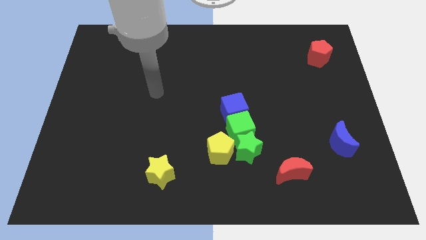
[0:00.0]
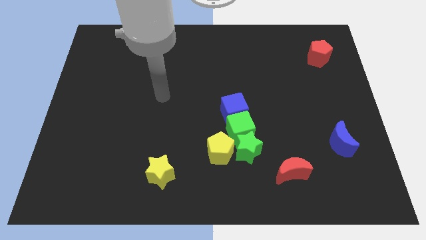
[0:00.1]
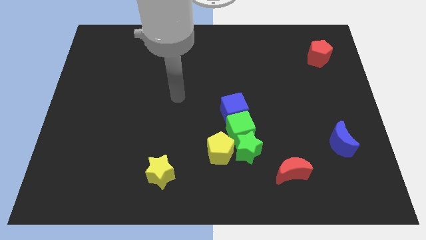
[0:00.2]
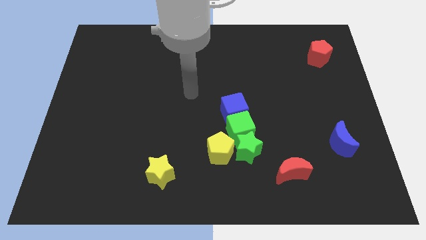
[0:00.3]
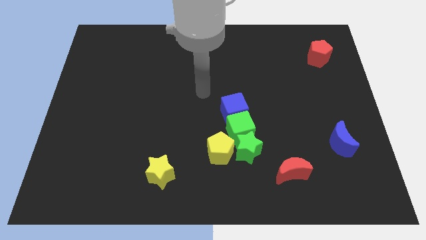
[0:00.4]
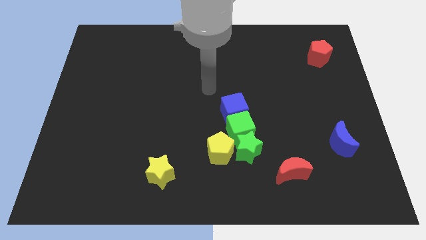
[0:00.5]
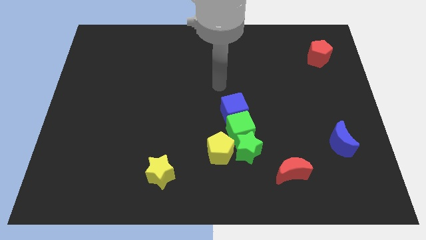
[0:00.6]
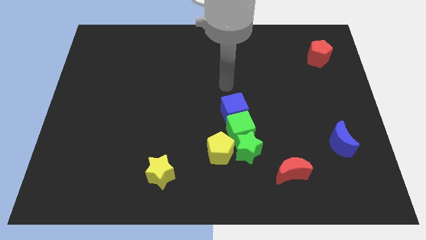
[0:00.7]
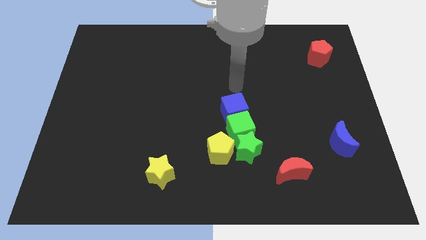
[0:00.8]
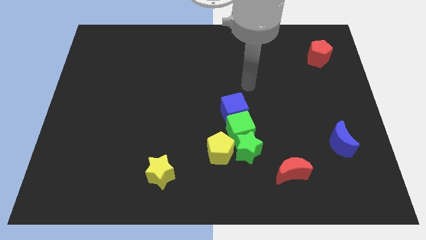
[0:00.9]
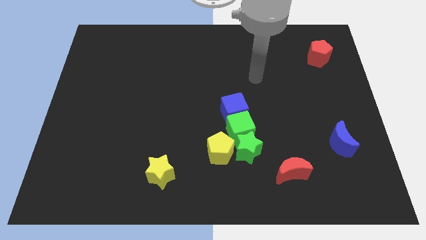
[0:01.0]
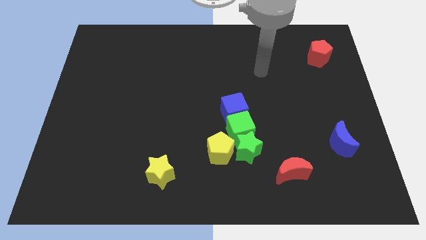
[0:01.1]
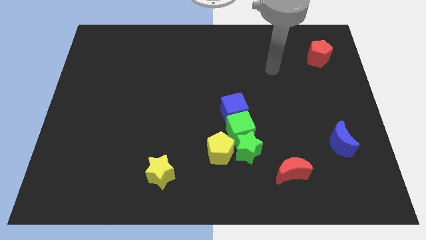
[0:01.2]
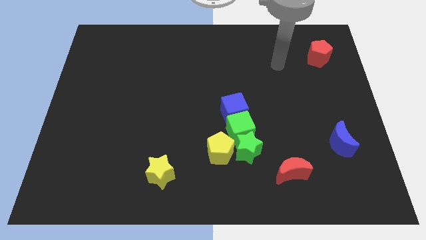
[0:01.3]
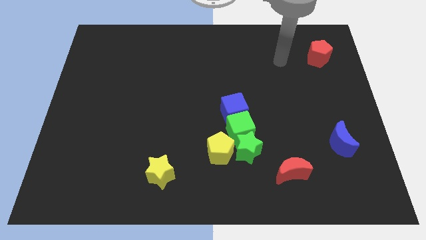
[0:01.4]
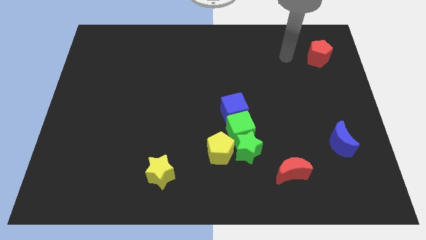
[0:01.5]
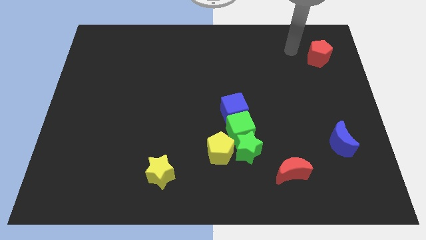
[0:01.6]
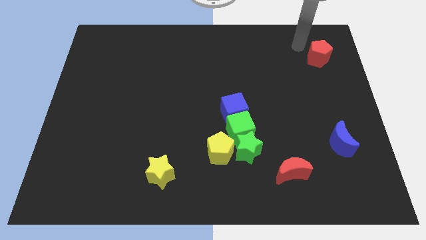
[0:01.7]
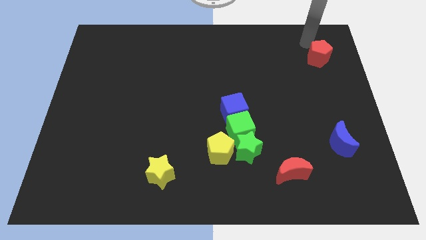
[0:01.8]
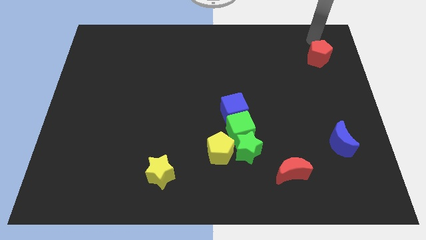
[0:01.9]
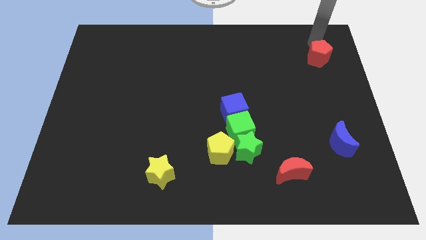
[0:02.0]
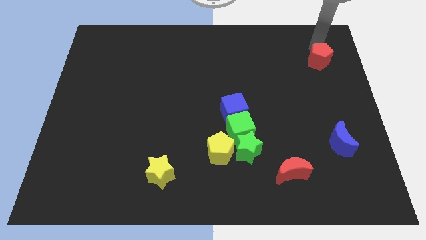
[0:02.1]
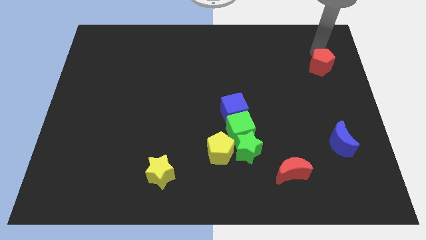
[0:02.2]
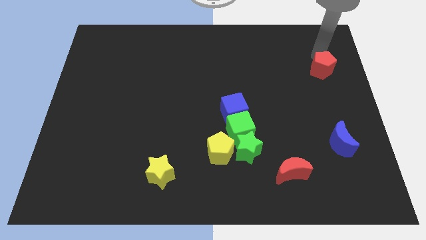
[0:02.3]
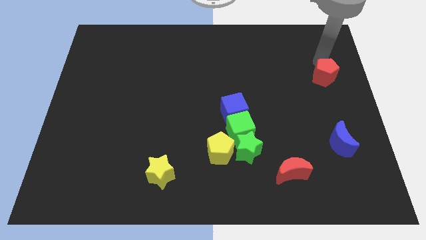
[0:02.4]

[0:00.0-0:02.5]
slightly move the red pentagon down

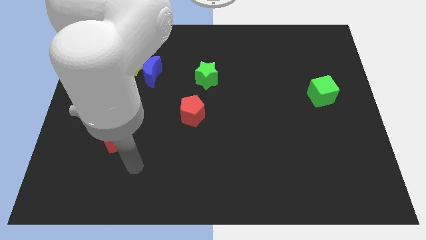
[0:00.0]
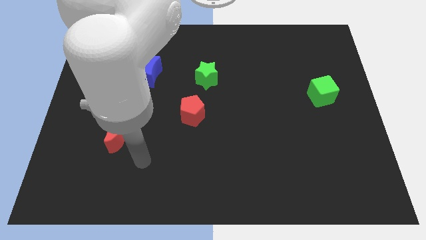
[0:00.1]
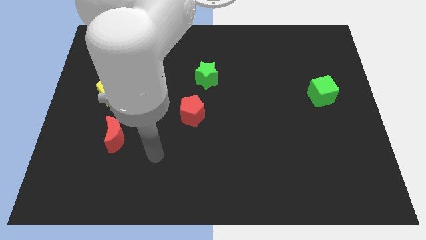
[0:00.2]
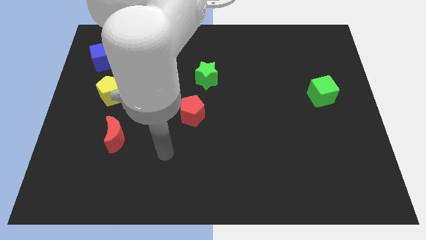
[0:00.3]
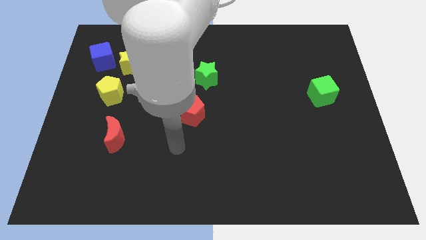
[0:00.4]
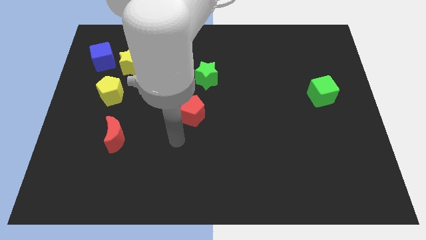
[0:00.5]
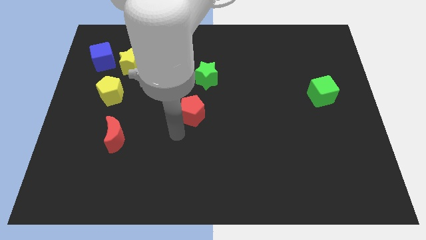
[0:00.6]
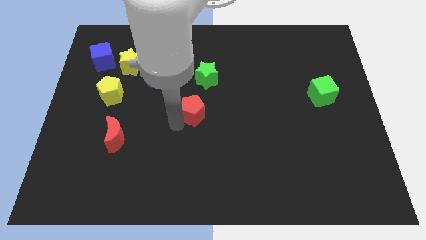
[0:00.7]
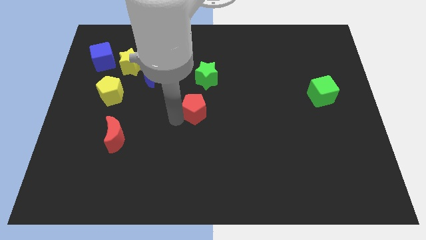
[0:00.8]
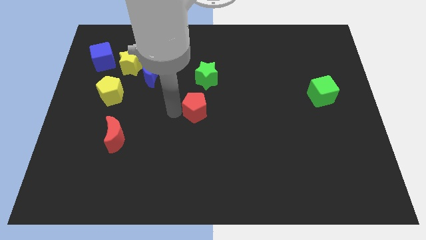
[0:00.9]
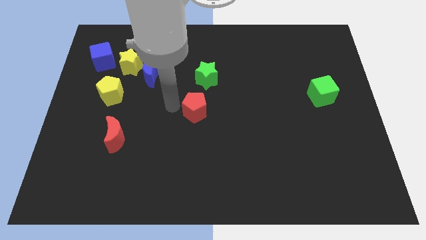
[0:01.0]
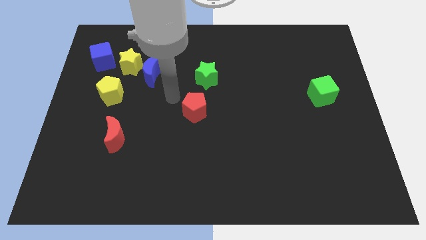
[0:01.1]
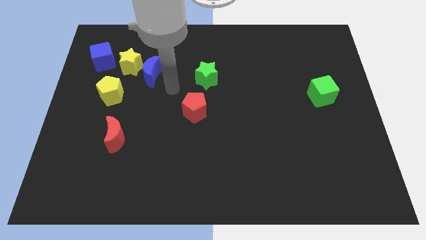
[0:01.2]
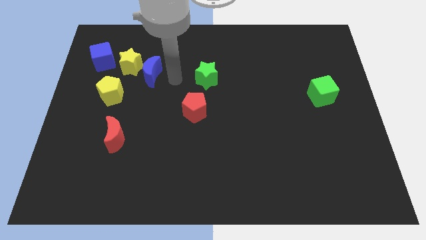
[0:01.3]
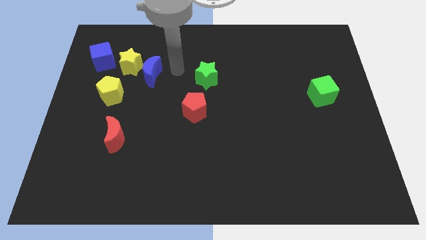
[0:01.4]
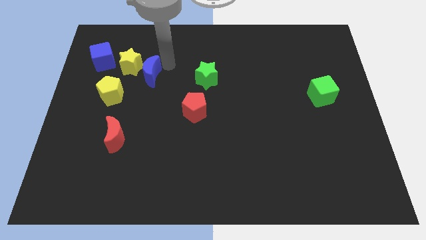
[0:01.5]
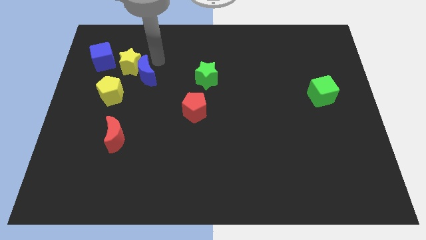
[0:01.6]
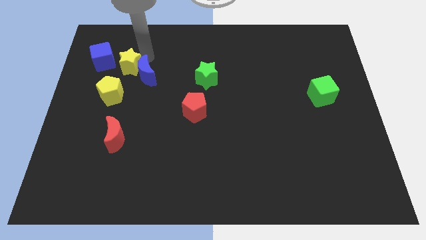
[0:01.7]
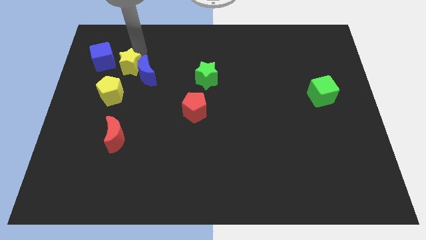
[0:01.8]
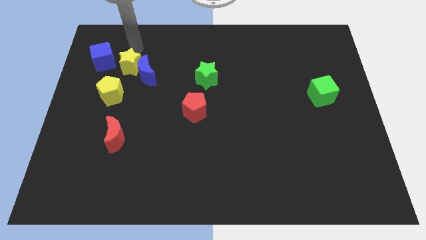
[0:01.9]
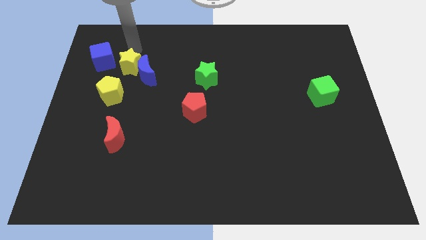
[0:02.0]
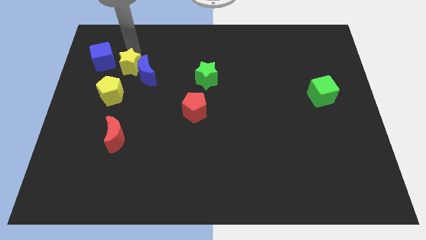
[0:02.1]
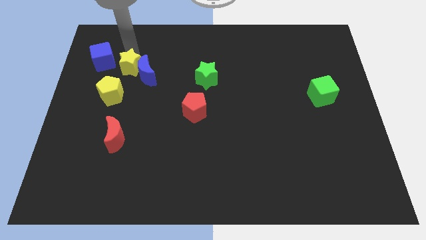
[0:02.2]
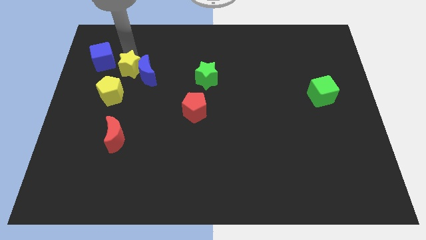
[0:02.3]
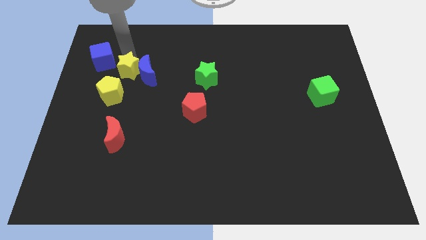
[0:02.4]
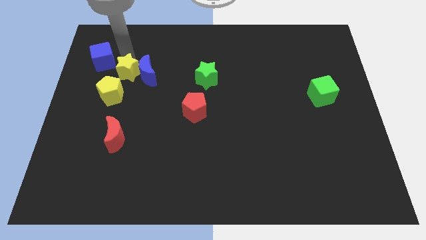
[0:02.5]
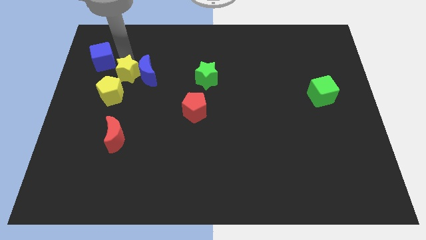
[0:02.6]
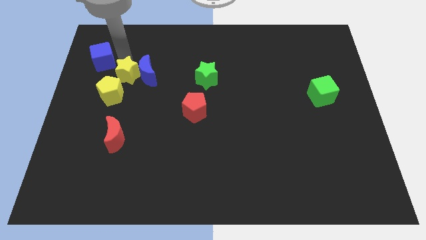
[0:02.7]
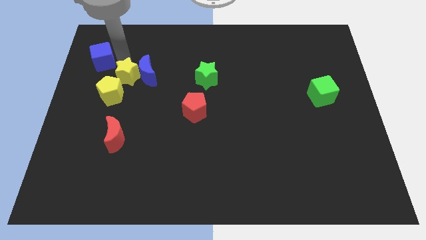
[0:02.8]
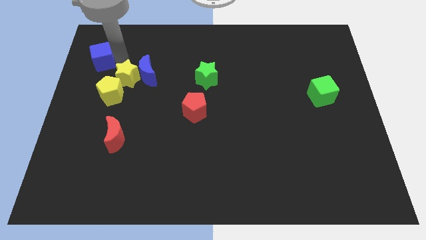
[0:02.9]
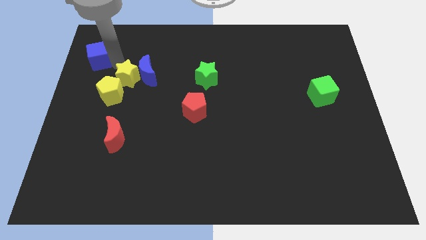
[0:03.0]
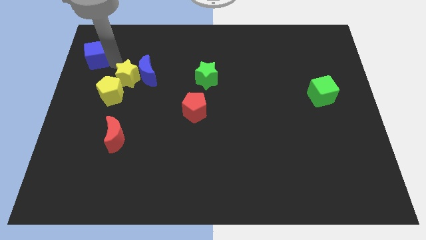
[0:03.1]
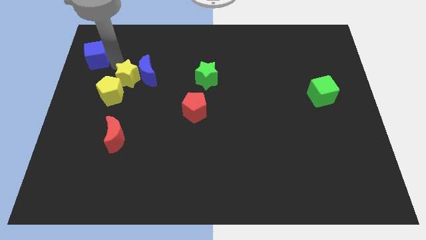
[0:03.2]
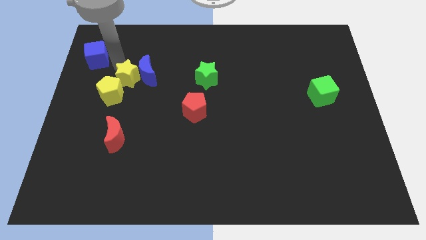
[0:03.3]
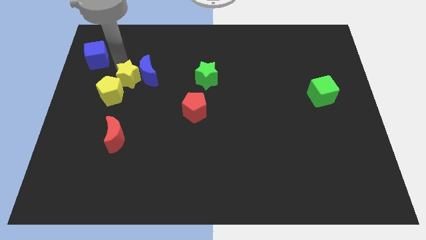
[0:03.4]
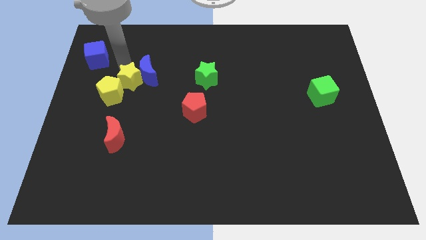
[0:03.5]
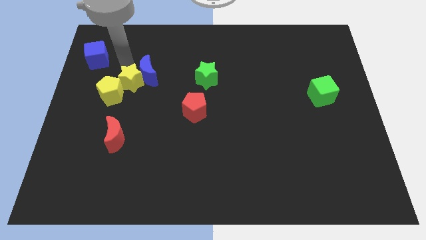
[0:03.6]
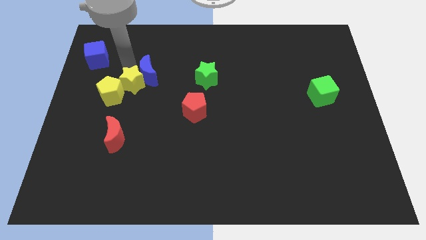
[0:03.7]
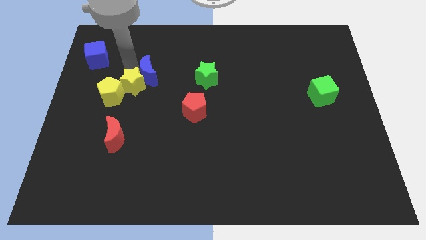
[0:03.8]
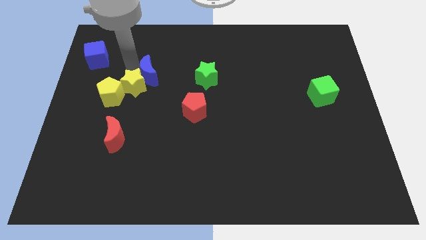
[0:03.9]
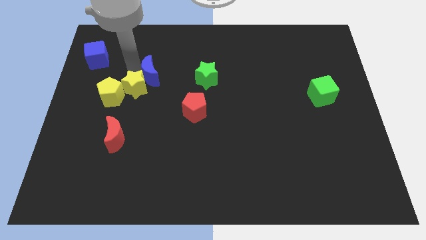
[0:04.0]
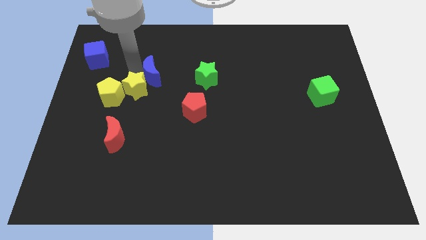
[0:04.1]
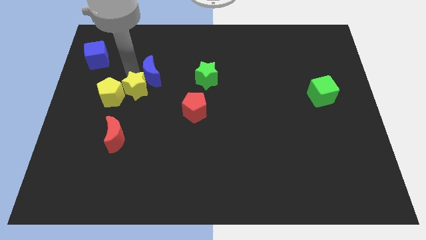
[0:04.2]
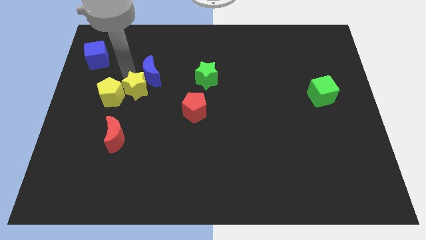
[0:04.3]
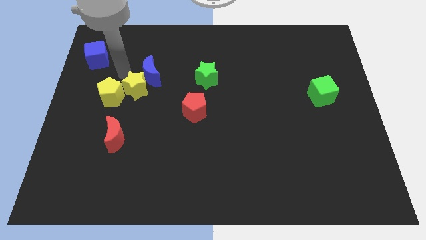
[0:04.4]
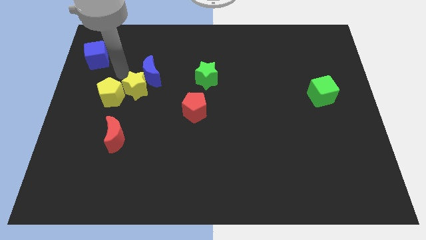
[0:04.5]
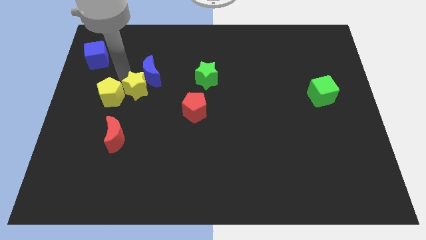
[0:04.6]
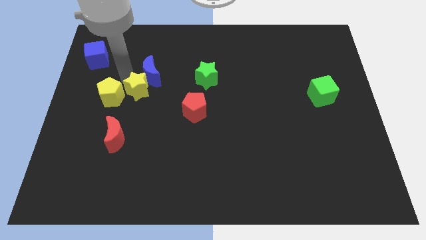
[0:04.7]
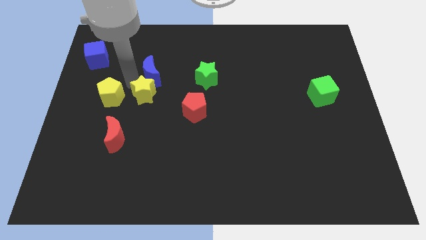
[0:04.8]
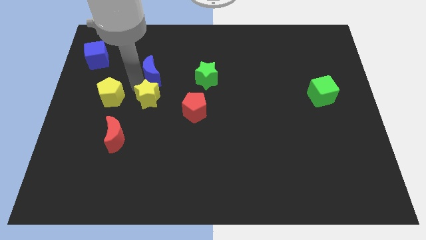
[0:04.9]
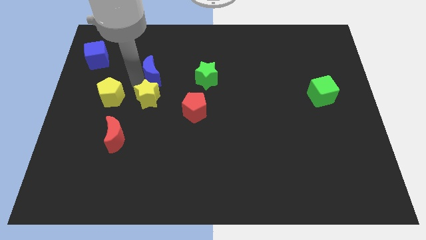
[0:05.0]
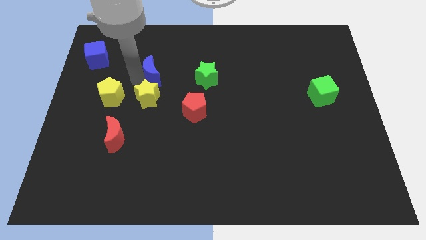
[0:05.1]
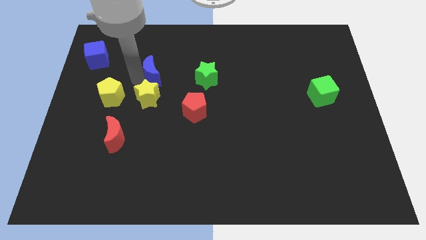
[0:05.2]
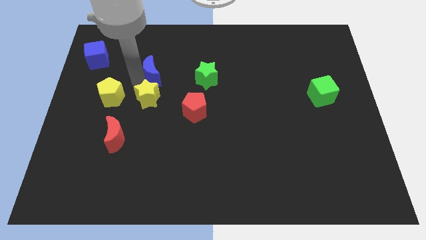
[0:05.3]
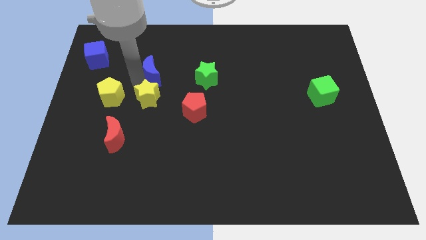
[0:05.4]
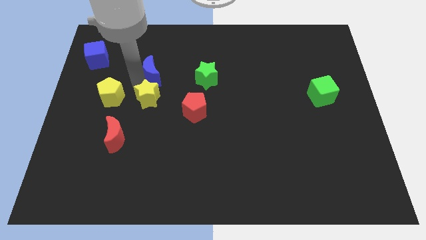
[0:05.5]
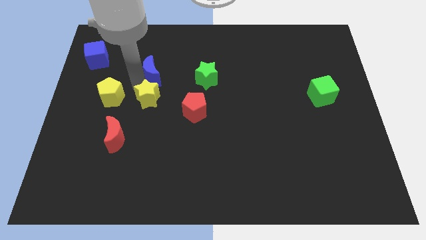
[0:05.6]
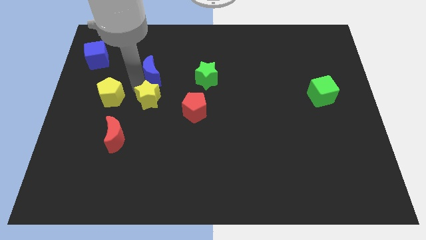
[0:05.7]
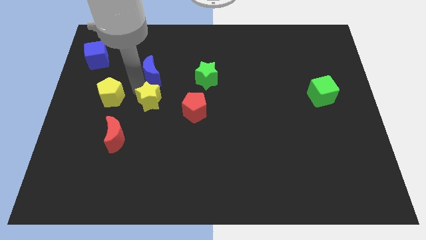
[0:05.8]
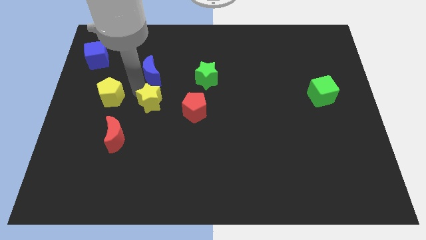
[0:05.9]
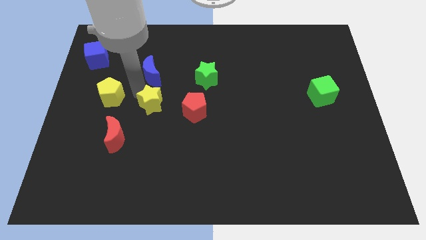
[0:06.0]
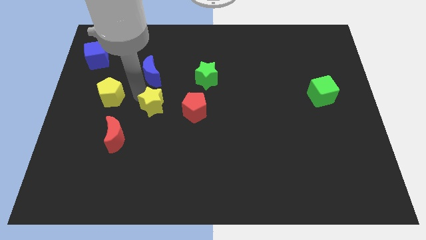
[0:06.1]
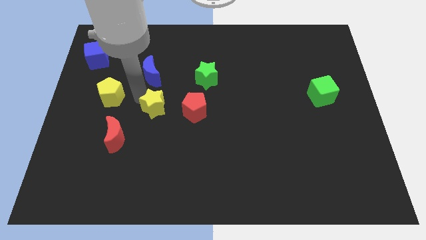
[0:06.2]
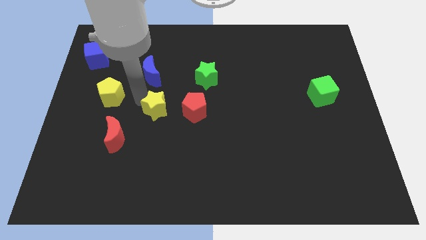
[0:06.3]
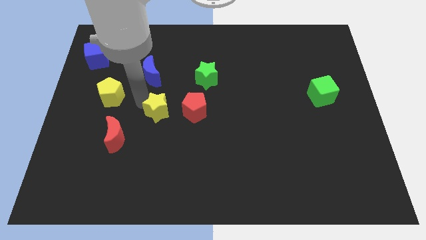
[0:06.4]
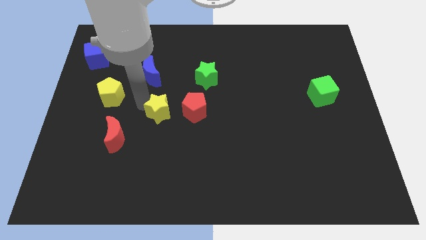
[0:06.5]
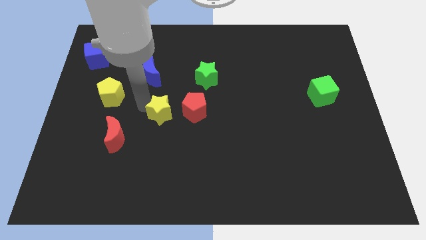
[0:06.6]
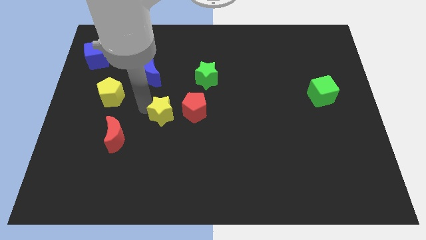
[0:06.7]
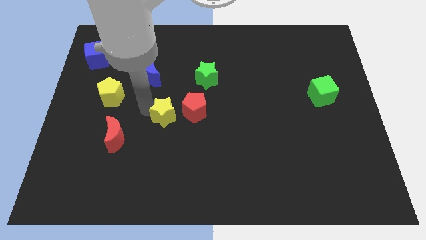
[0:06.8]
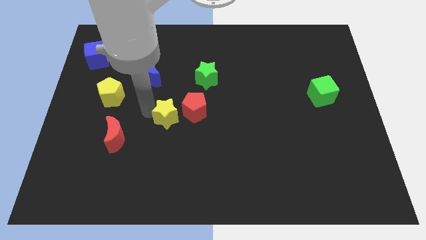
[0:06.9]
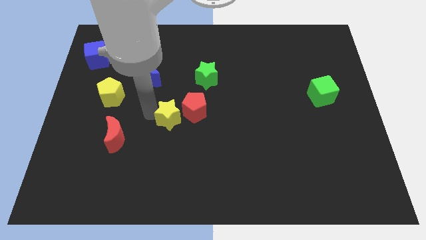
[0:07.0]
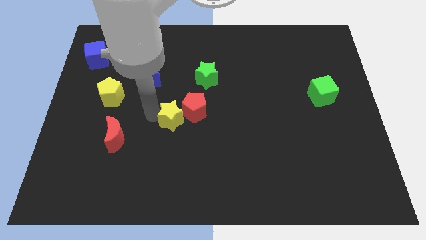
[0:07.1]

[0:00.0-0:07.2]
move the yellow star diagonally downwards and right
